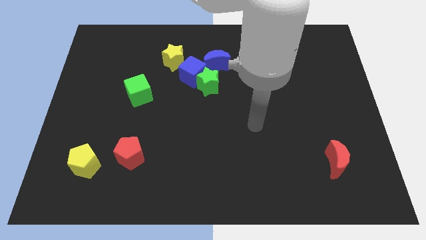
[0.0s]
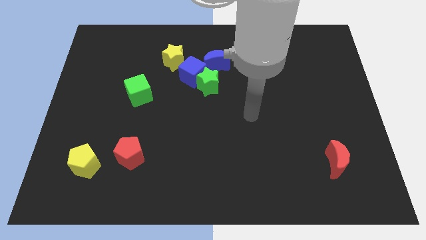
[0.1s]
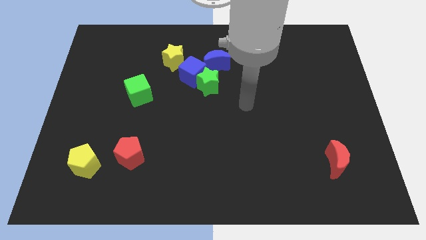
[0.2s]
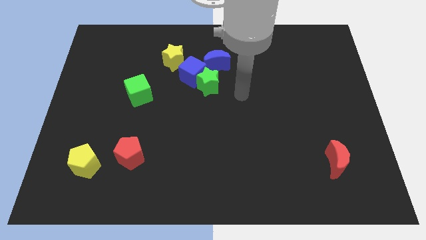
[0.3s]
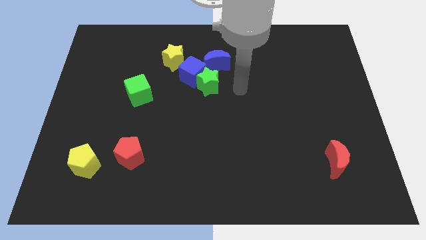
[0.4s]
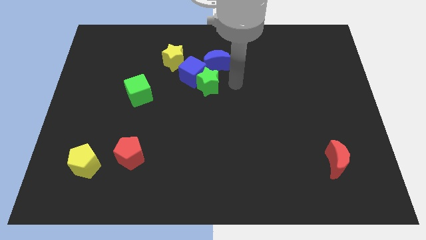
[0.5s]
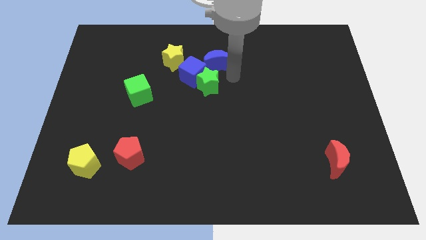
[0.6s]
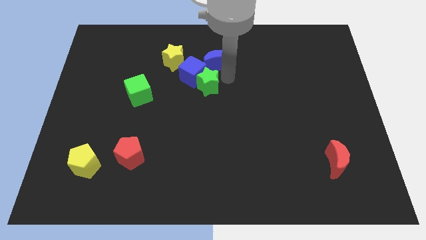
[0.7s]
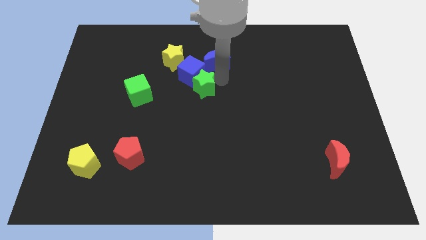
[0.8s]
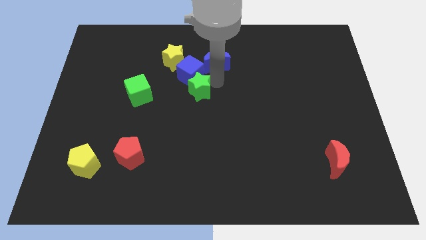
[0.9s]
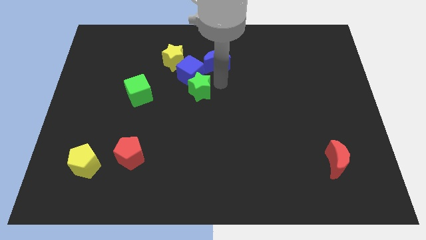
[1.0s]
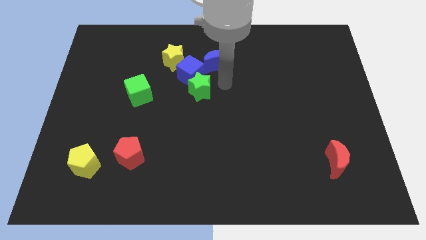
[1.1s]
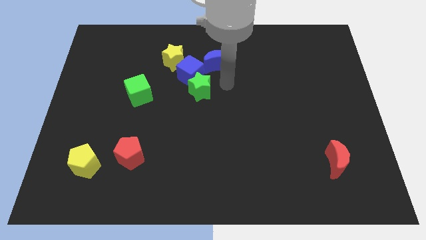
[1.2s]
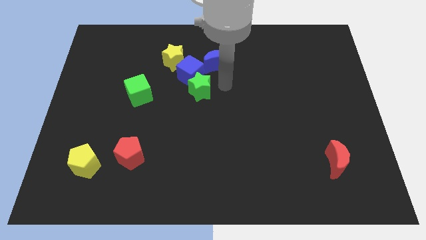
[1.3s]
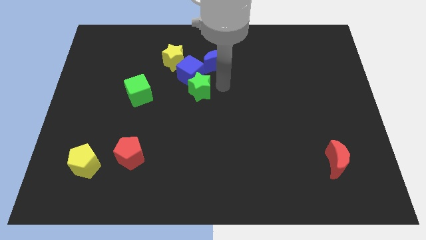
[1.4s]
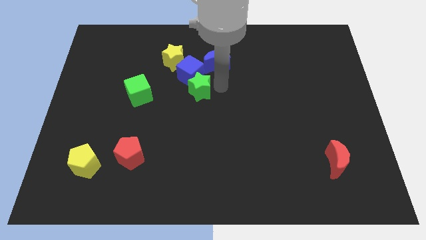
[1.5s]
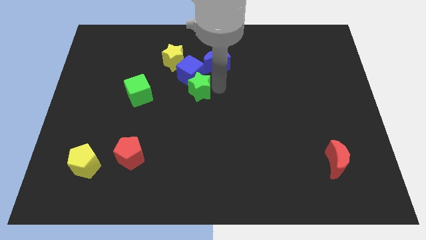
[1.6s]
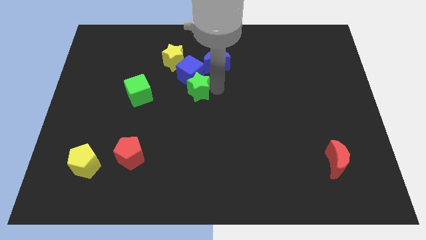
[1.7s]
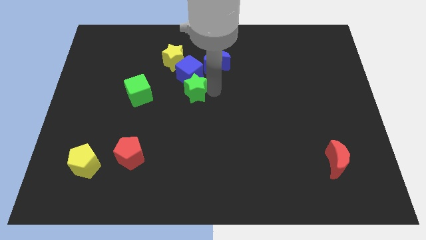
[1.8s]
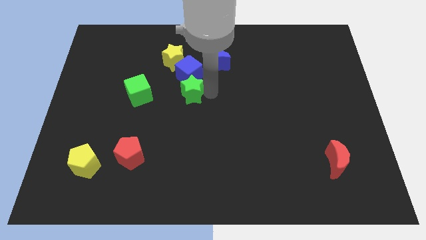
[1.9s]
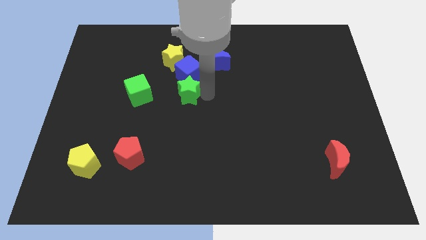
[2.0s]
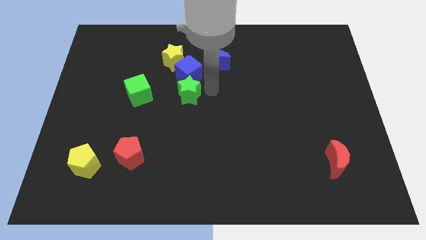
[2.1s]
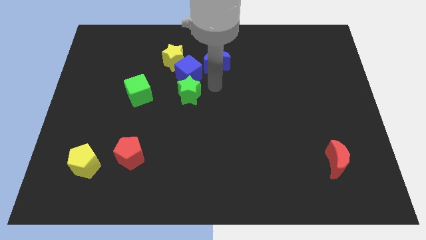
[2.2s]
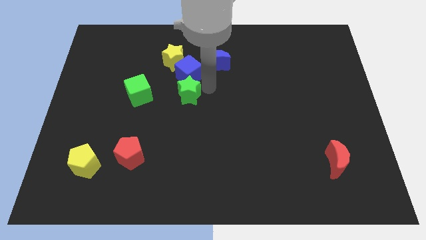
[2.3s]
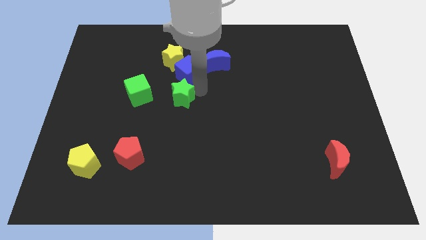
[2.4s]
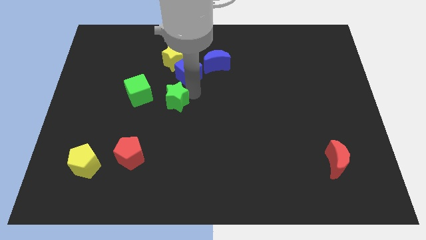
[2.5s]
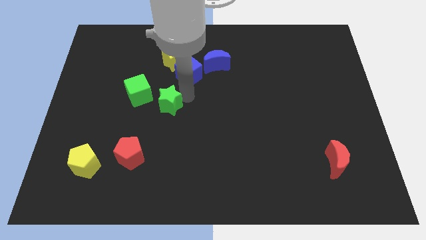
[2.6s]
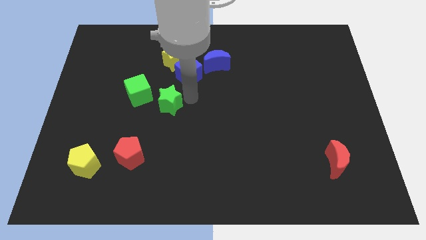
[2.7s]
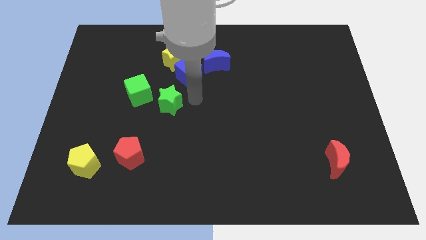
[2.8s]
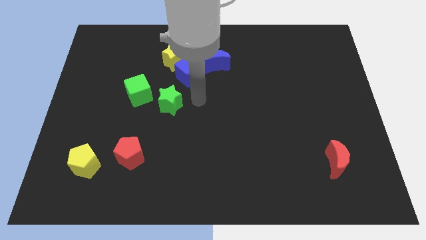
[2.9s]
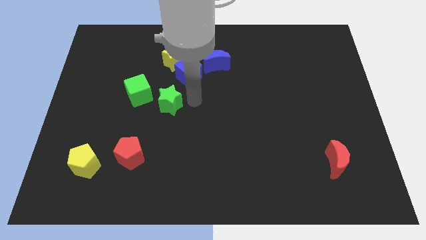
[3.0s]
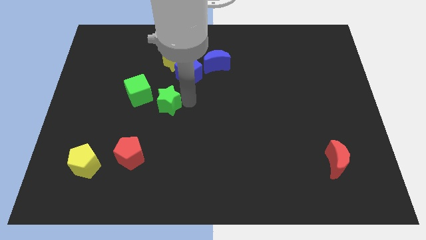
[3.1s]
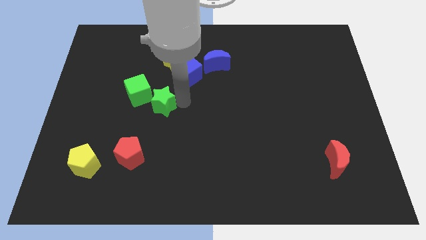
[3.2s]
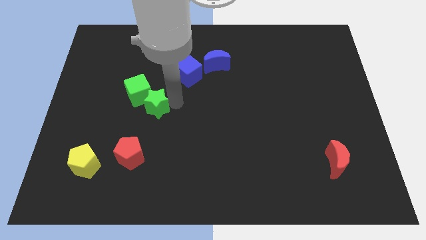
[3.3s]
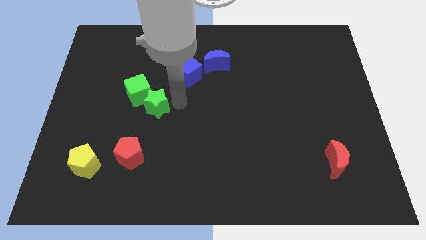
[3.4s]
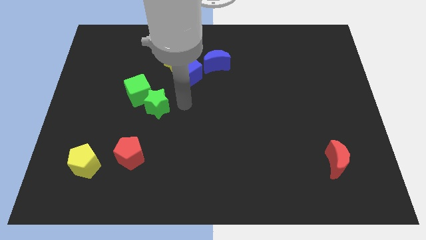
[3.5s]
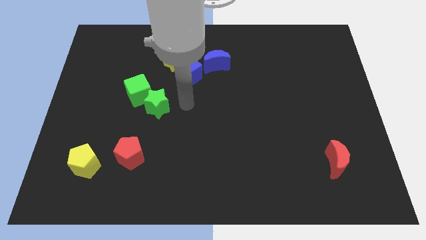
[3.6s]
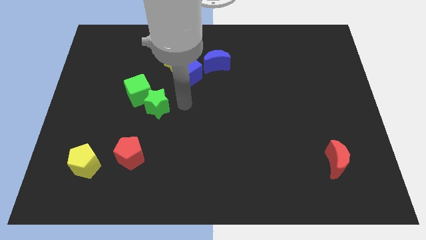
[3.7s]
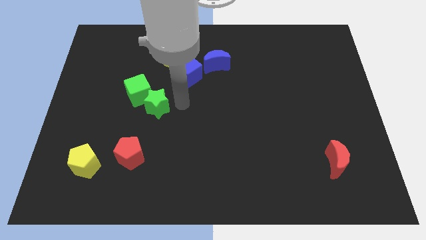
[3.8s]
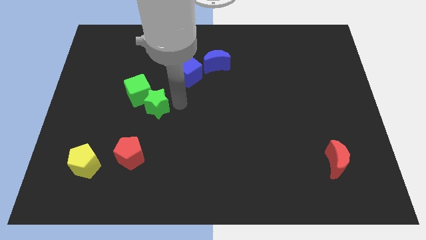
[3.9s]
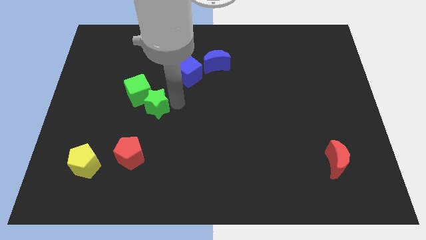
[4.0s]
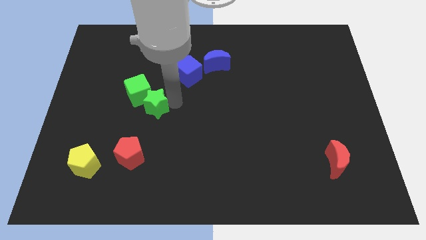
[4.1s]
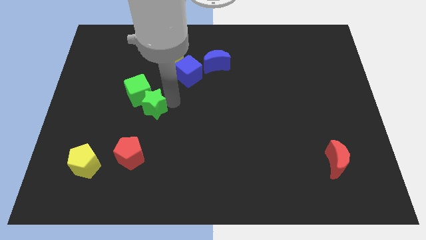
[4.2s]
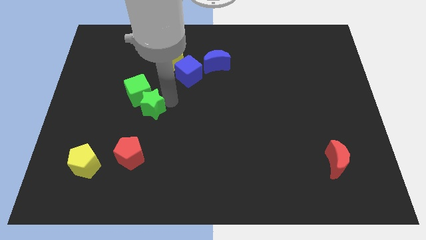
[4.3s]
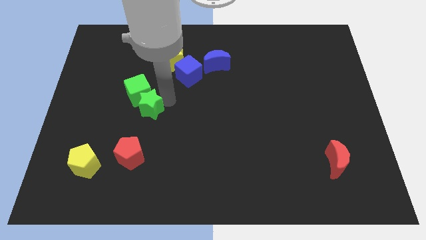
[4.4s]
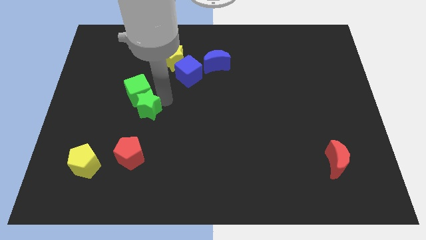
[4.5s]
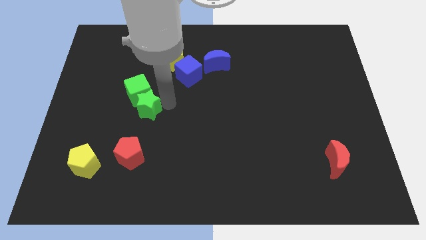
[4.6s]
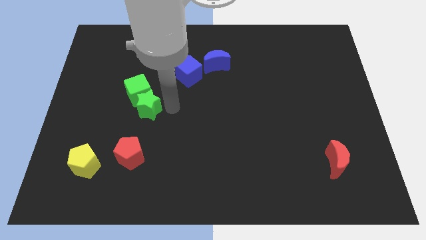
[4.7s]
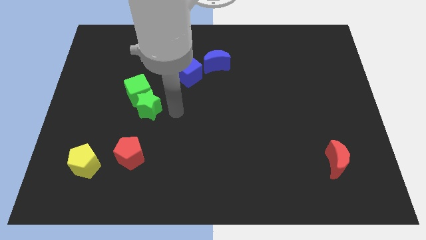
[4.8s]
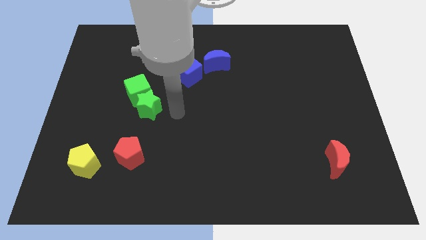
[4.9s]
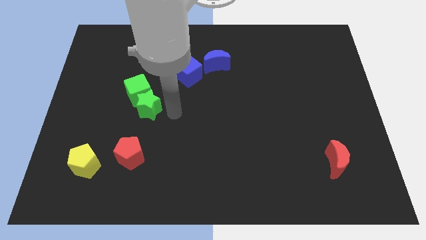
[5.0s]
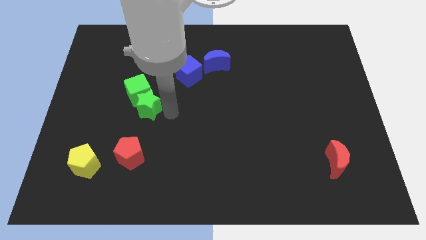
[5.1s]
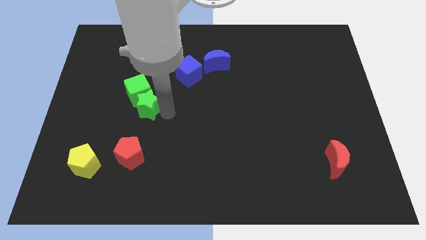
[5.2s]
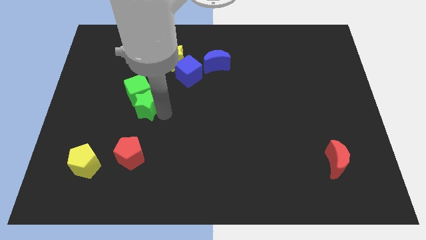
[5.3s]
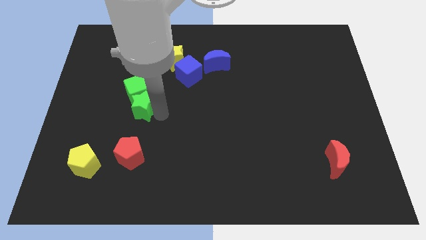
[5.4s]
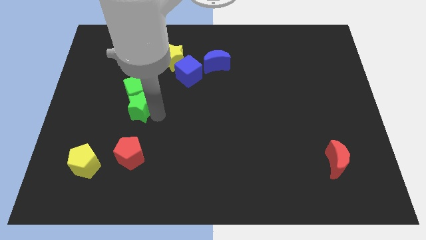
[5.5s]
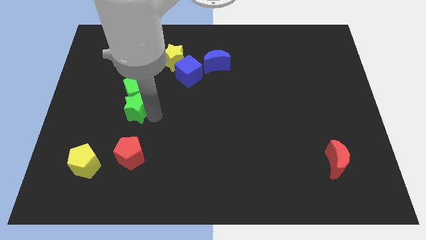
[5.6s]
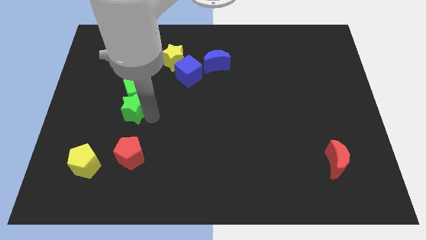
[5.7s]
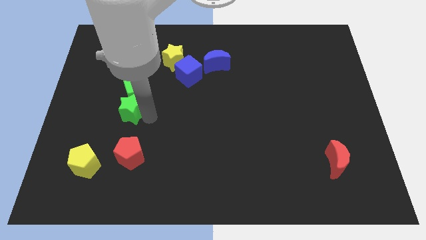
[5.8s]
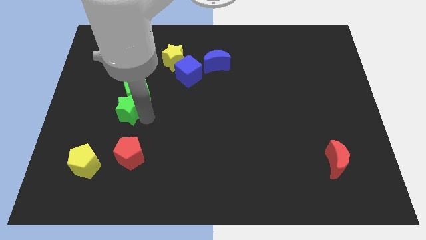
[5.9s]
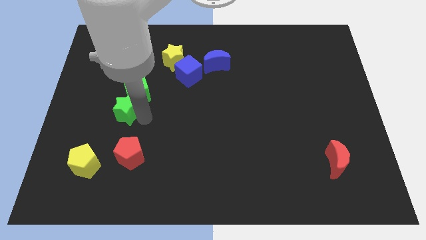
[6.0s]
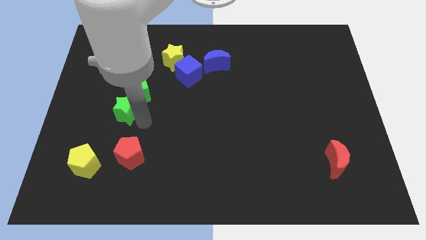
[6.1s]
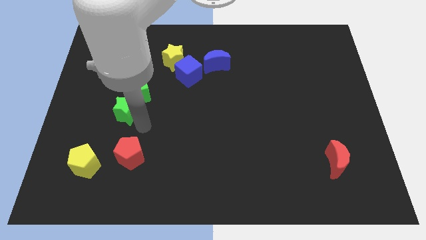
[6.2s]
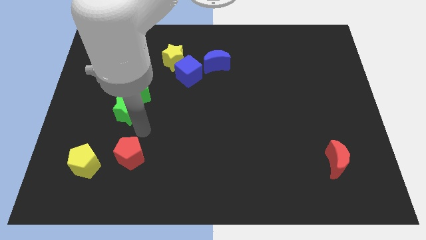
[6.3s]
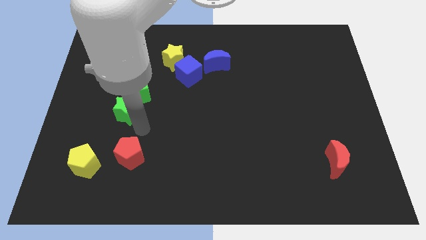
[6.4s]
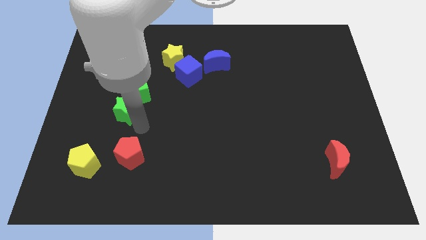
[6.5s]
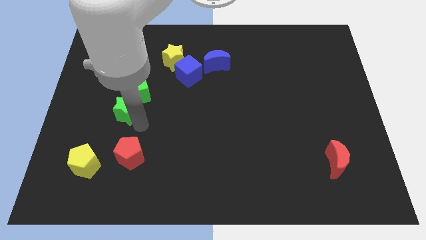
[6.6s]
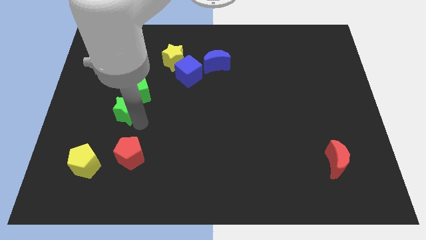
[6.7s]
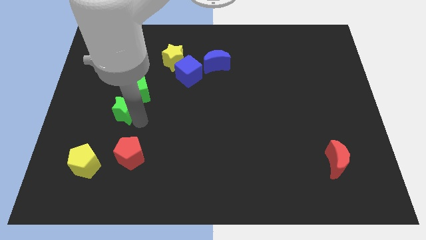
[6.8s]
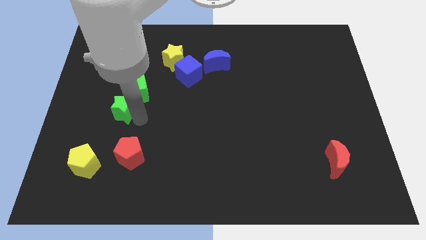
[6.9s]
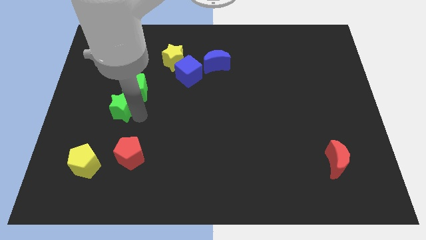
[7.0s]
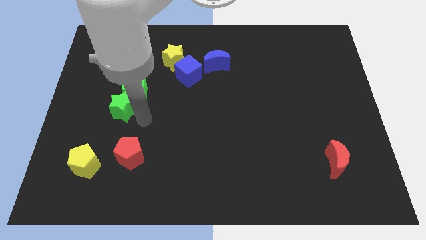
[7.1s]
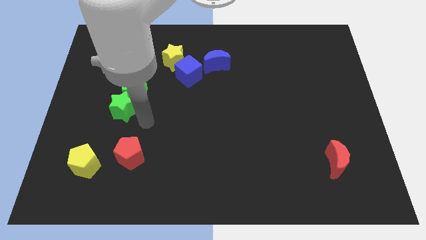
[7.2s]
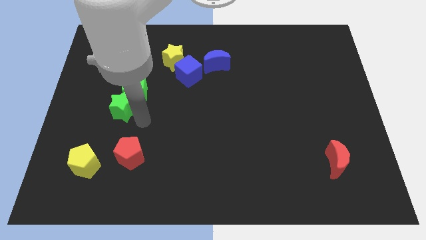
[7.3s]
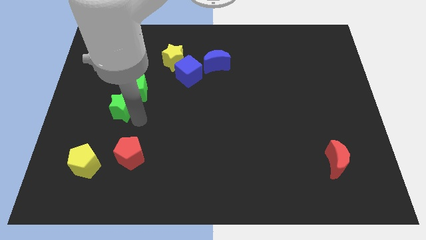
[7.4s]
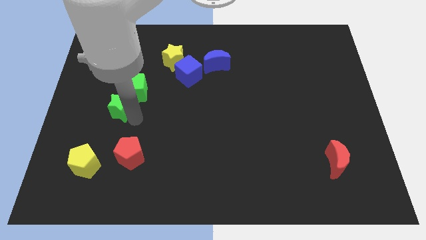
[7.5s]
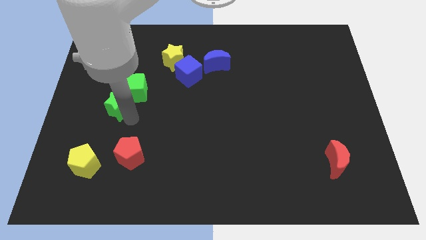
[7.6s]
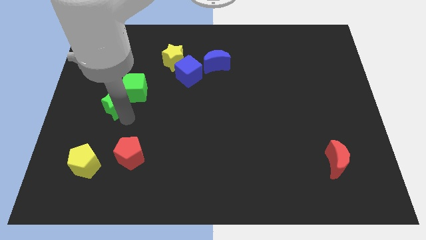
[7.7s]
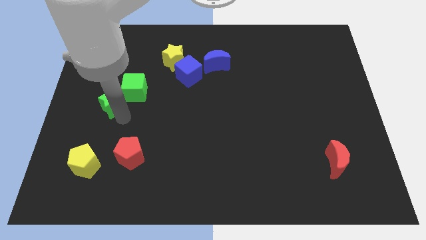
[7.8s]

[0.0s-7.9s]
put the green star left of the green cube
